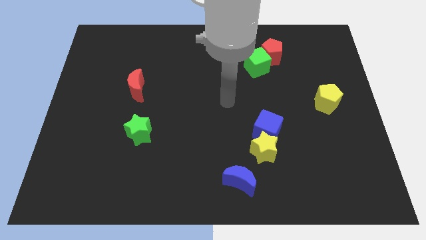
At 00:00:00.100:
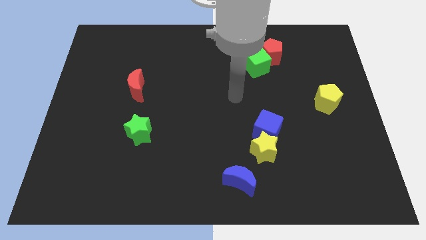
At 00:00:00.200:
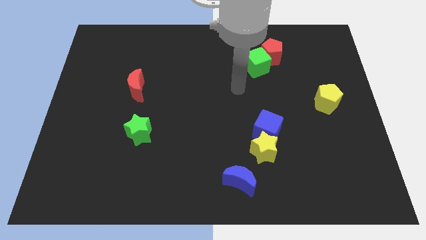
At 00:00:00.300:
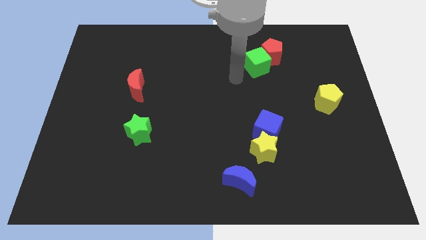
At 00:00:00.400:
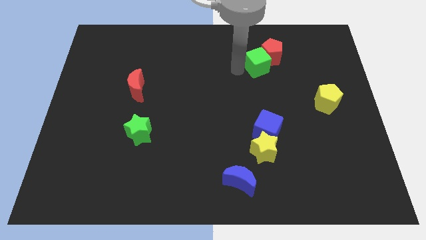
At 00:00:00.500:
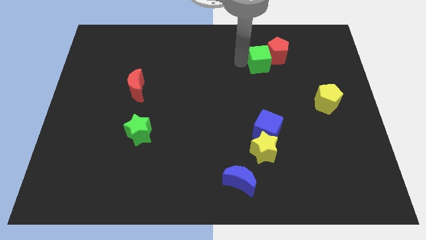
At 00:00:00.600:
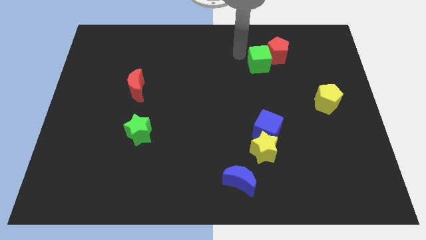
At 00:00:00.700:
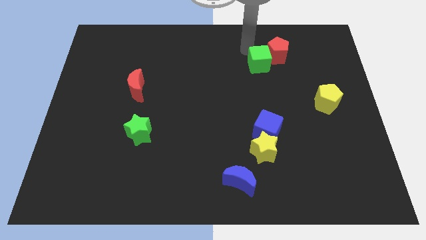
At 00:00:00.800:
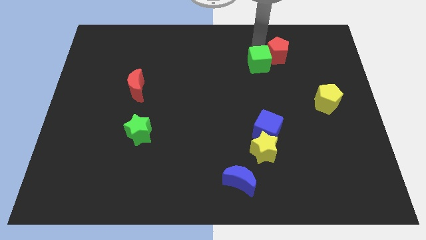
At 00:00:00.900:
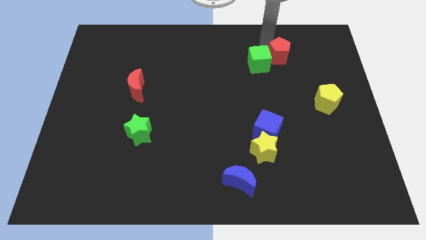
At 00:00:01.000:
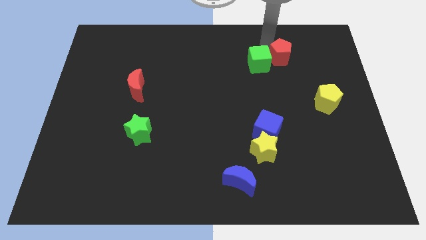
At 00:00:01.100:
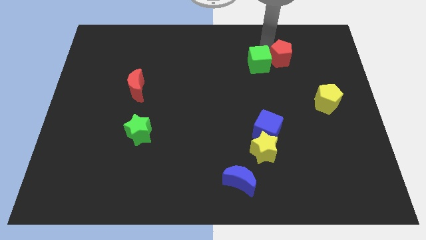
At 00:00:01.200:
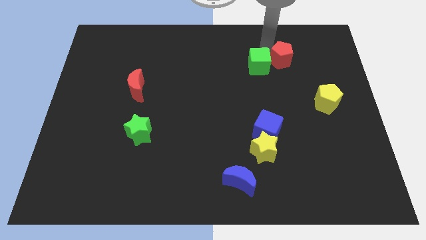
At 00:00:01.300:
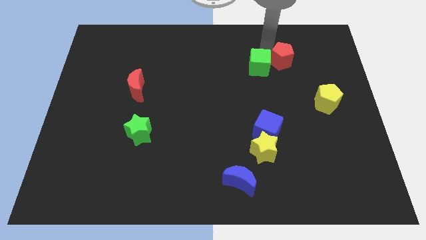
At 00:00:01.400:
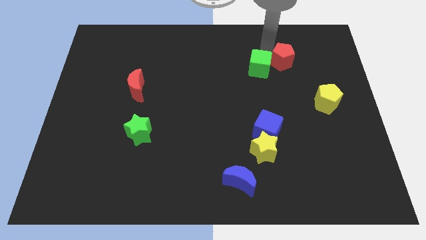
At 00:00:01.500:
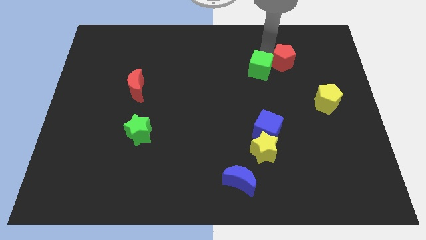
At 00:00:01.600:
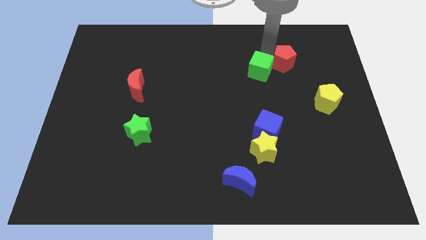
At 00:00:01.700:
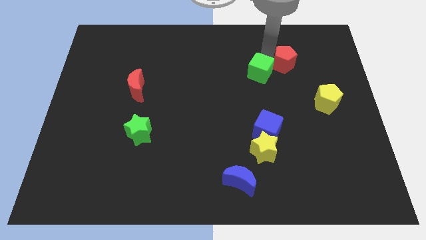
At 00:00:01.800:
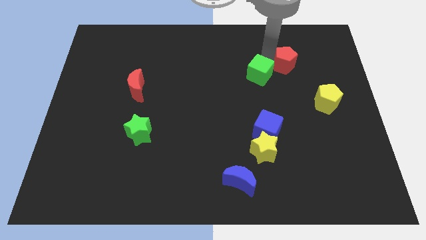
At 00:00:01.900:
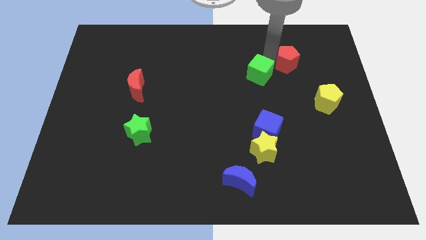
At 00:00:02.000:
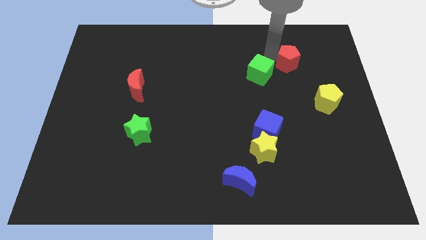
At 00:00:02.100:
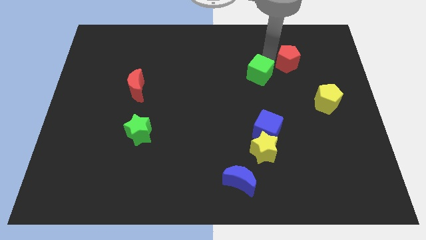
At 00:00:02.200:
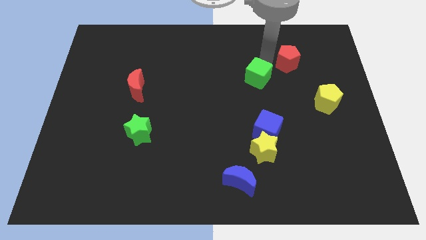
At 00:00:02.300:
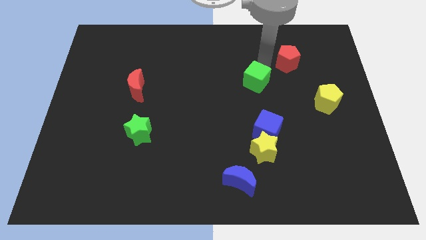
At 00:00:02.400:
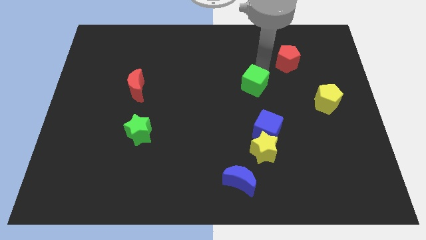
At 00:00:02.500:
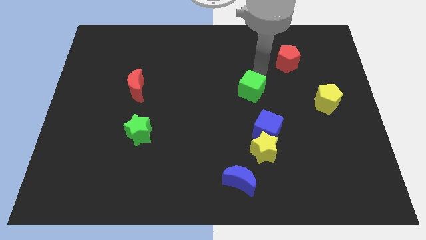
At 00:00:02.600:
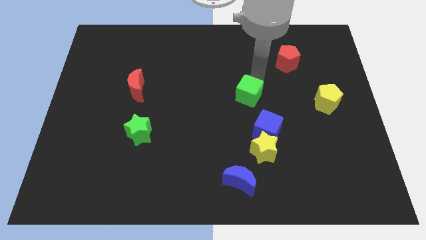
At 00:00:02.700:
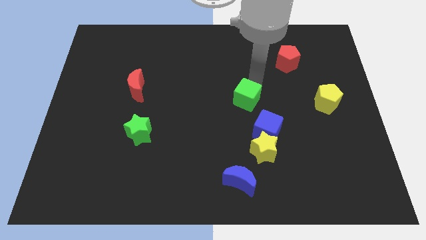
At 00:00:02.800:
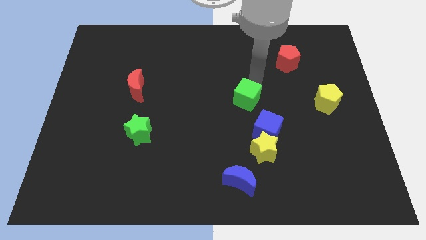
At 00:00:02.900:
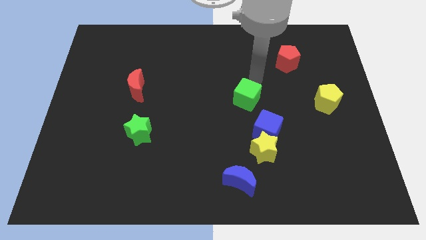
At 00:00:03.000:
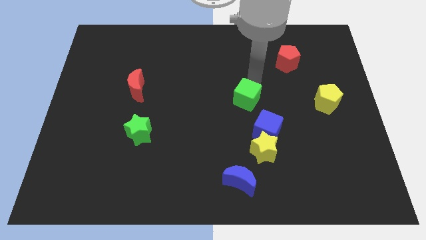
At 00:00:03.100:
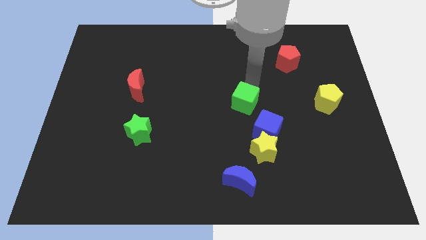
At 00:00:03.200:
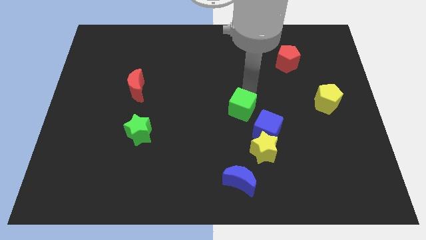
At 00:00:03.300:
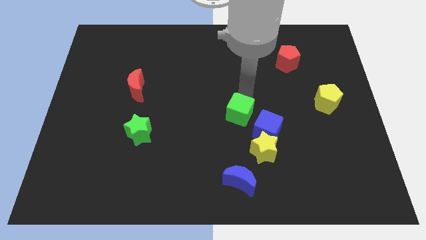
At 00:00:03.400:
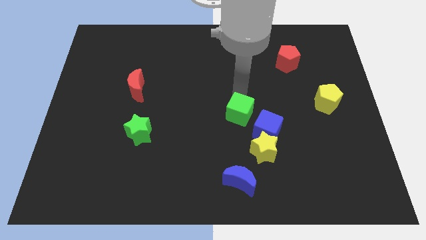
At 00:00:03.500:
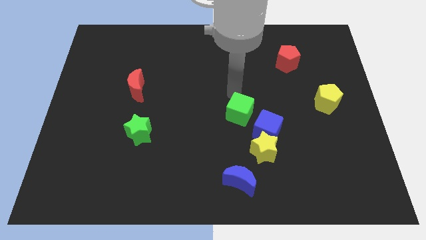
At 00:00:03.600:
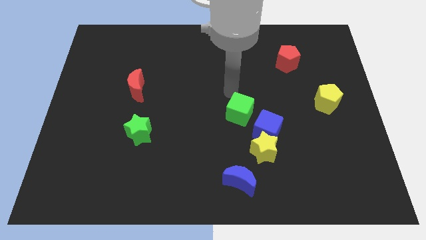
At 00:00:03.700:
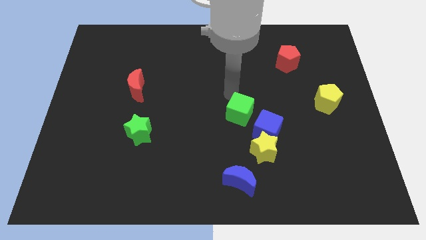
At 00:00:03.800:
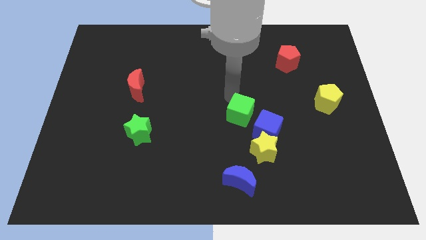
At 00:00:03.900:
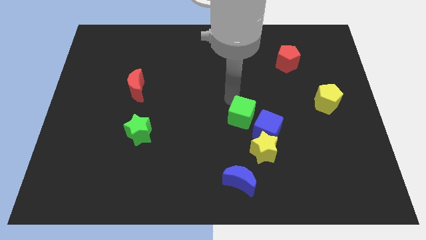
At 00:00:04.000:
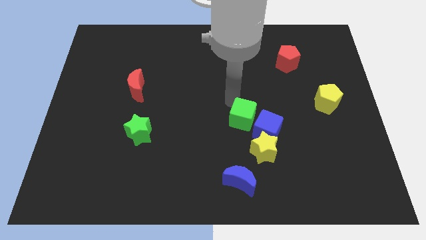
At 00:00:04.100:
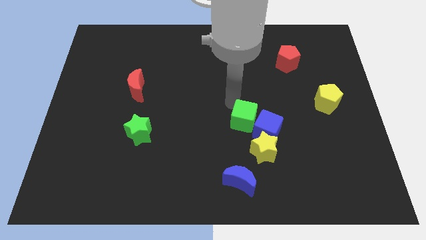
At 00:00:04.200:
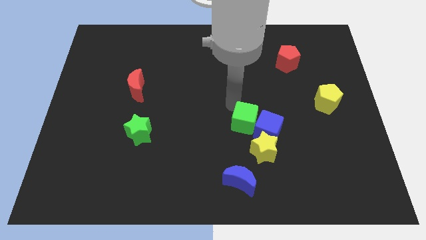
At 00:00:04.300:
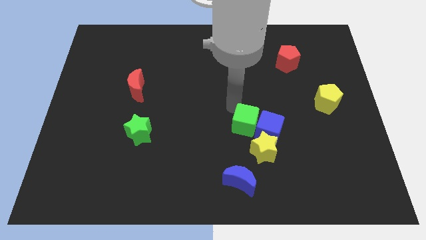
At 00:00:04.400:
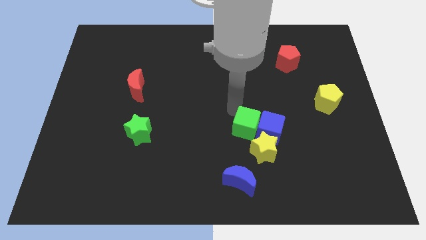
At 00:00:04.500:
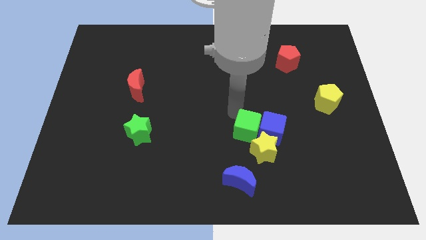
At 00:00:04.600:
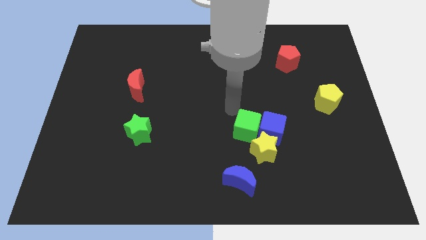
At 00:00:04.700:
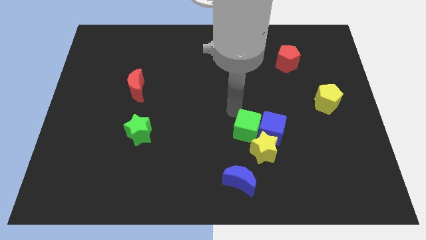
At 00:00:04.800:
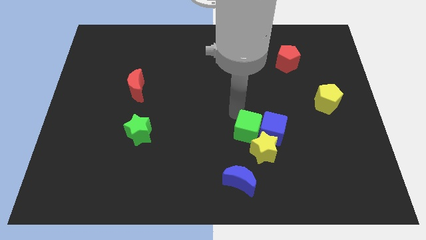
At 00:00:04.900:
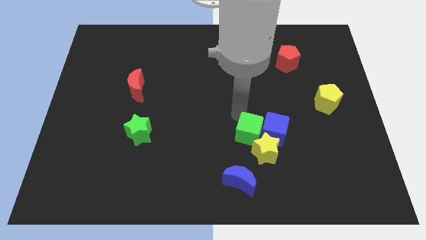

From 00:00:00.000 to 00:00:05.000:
slide the green cube towards the yellow star

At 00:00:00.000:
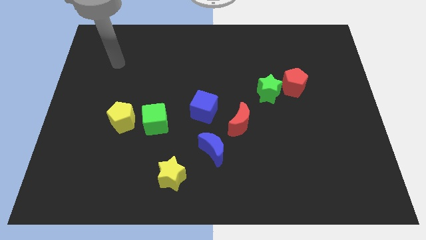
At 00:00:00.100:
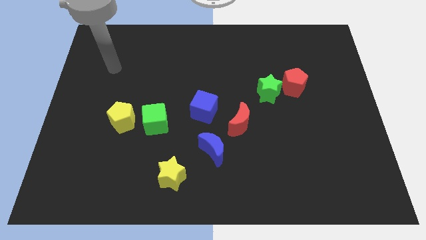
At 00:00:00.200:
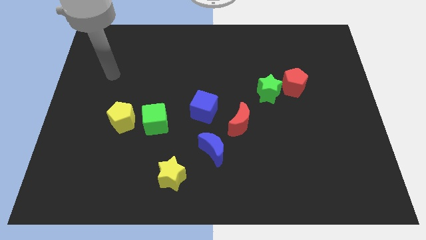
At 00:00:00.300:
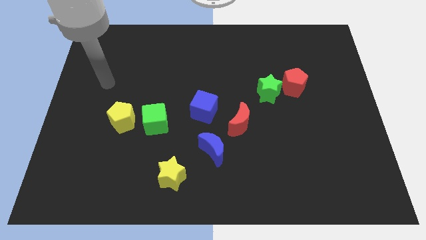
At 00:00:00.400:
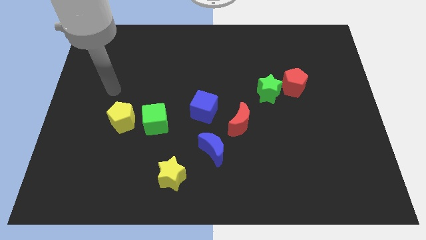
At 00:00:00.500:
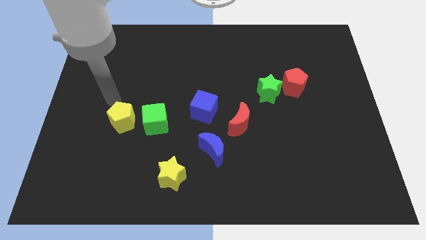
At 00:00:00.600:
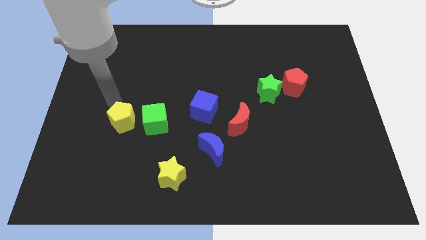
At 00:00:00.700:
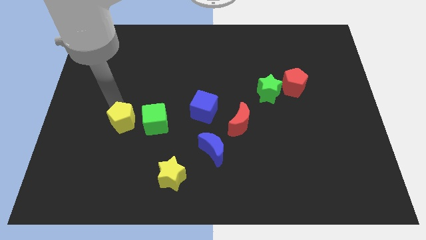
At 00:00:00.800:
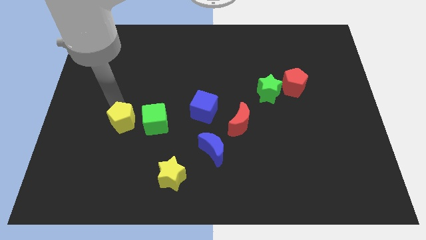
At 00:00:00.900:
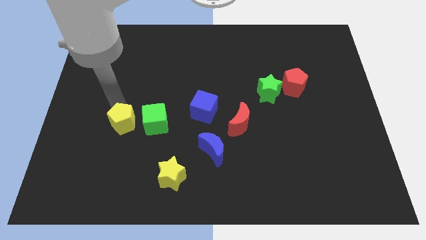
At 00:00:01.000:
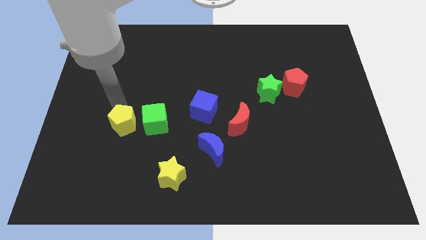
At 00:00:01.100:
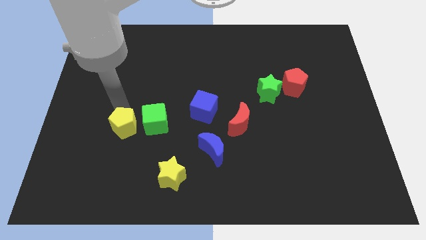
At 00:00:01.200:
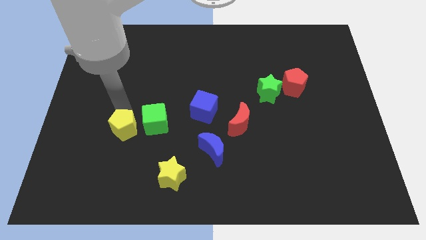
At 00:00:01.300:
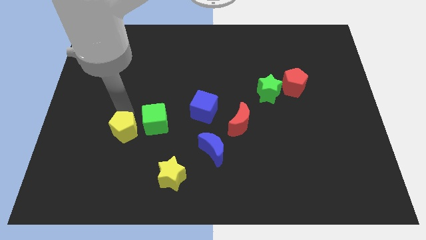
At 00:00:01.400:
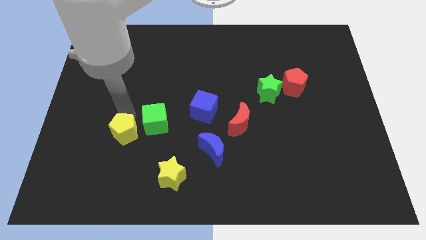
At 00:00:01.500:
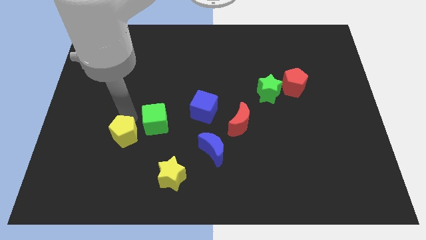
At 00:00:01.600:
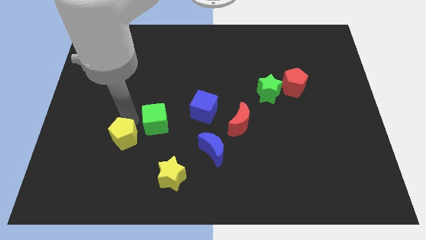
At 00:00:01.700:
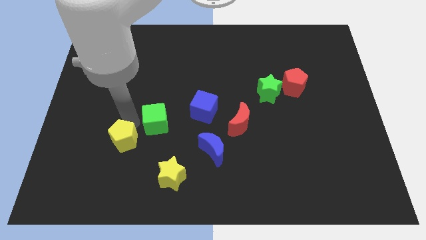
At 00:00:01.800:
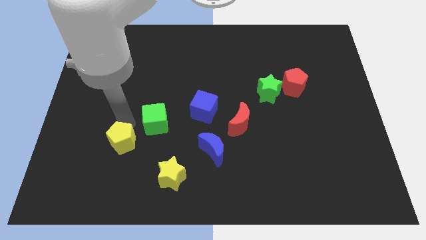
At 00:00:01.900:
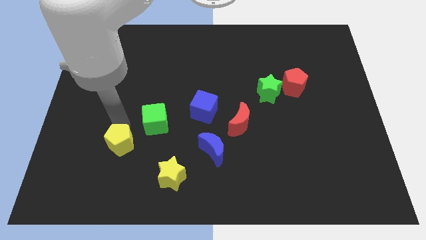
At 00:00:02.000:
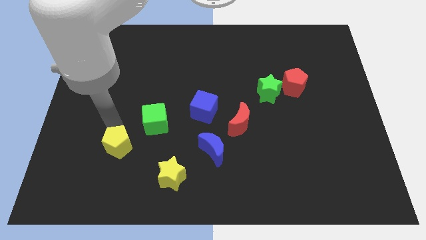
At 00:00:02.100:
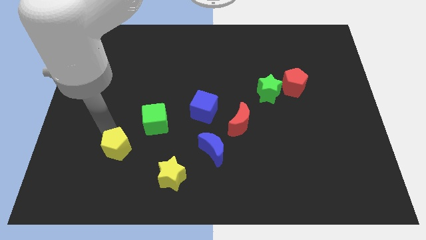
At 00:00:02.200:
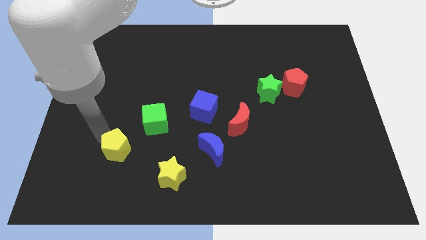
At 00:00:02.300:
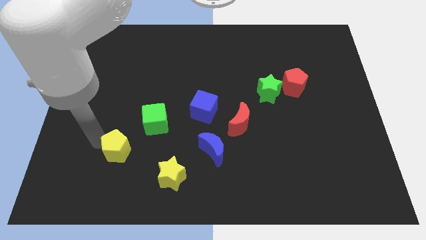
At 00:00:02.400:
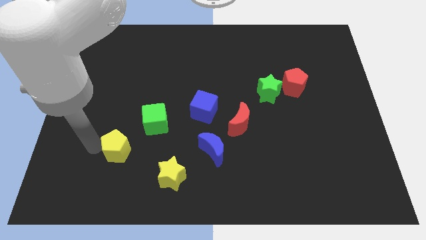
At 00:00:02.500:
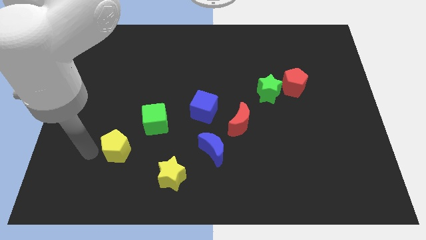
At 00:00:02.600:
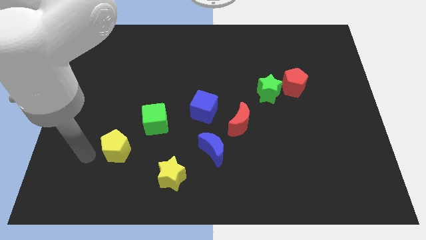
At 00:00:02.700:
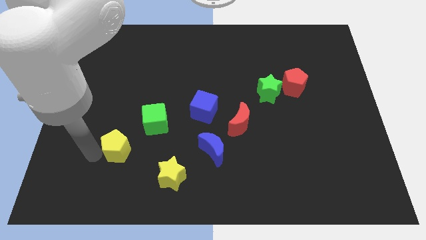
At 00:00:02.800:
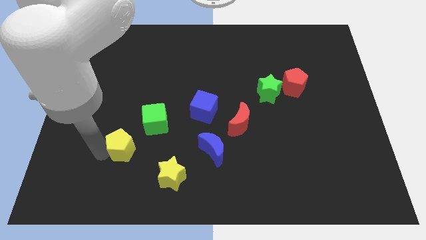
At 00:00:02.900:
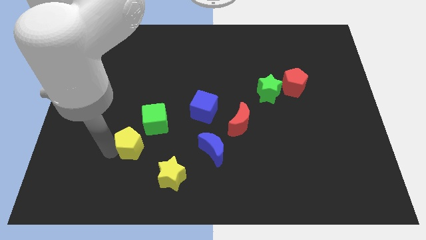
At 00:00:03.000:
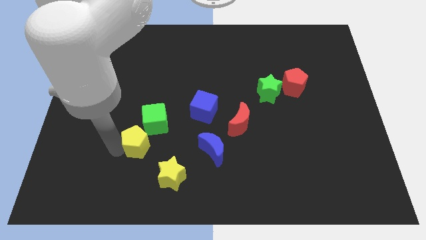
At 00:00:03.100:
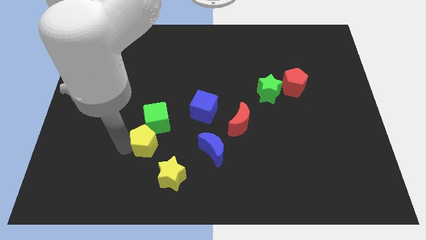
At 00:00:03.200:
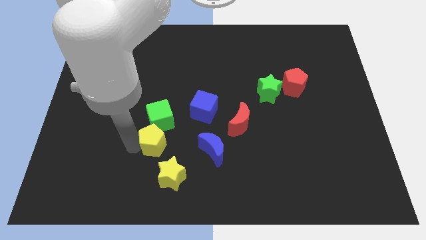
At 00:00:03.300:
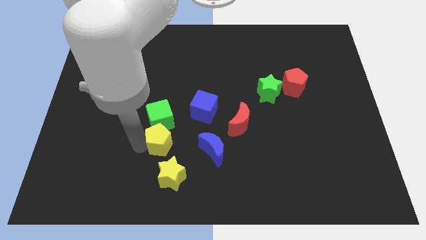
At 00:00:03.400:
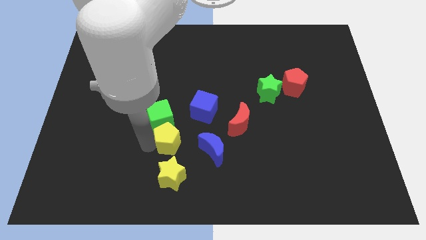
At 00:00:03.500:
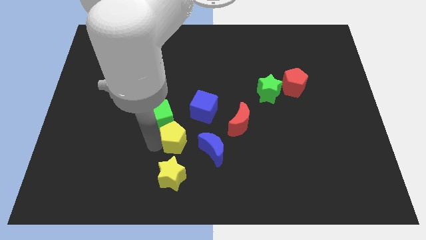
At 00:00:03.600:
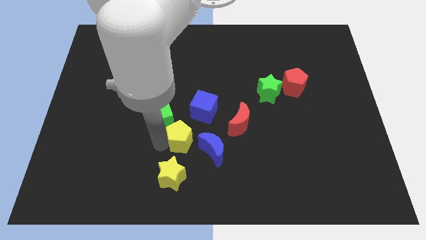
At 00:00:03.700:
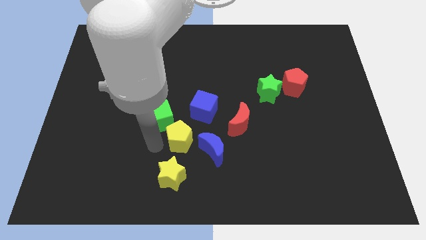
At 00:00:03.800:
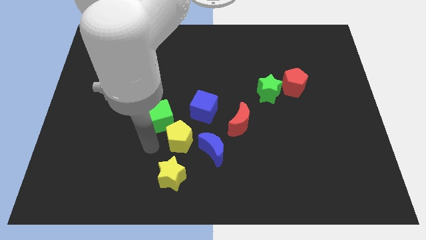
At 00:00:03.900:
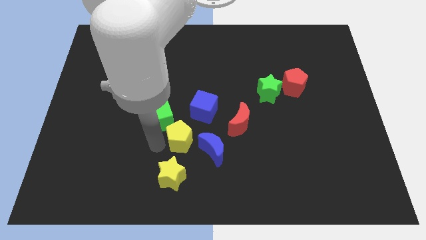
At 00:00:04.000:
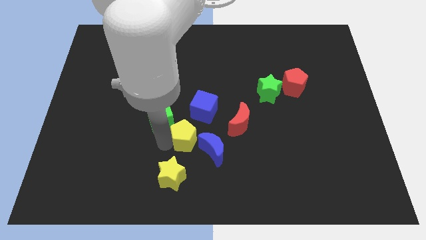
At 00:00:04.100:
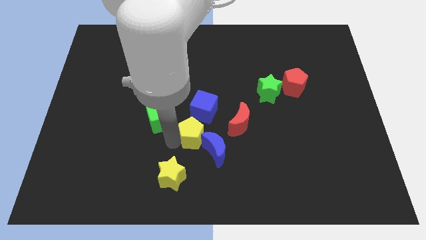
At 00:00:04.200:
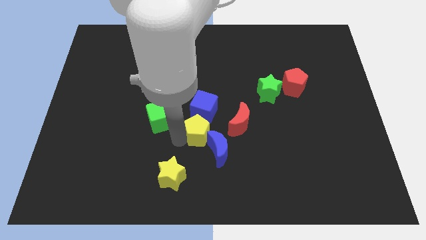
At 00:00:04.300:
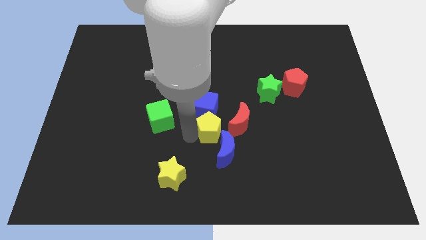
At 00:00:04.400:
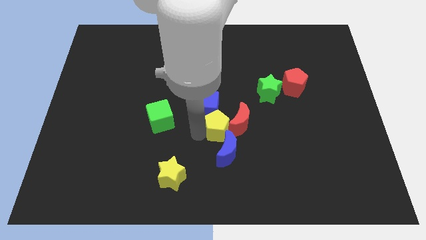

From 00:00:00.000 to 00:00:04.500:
slide the yellow pentagon towards the red moon
